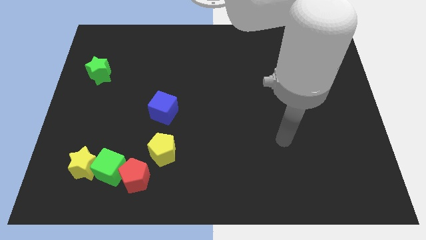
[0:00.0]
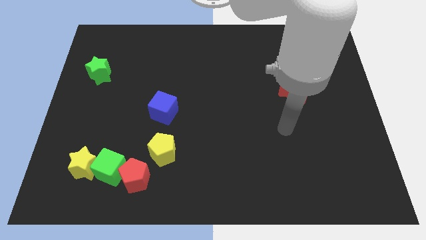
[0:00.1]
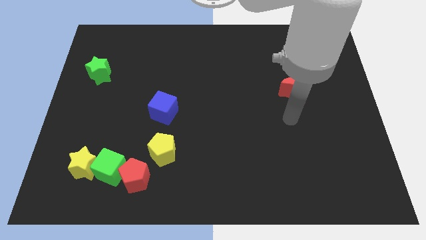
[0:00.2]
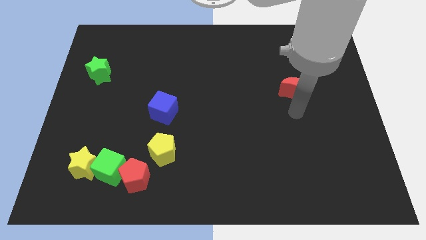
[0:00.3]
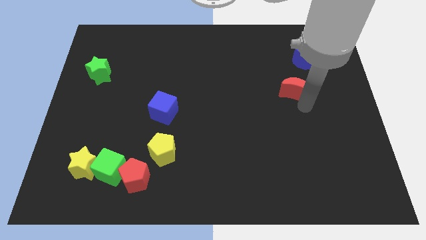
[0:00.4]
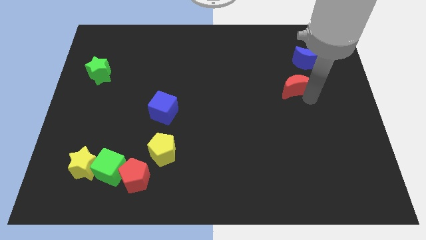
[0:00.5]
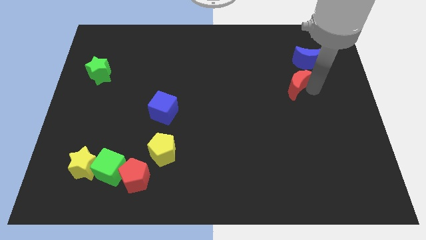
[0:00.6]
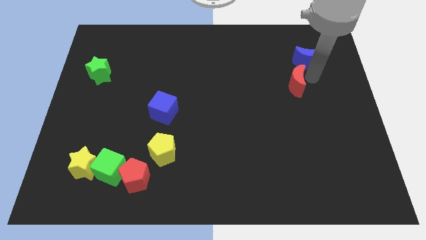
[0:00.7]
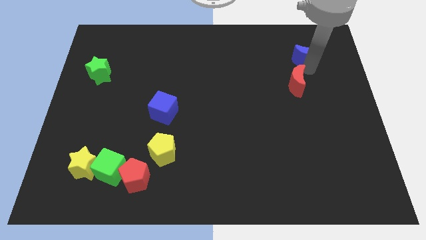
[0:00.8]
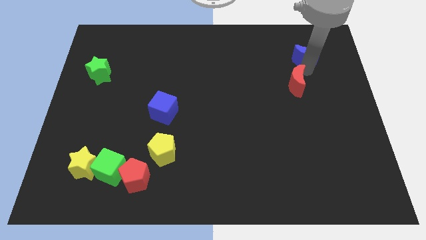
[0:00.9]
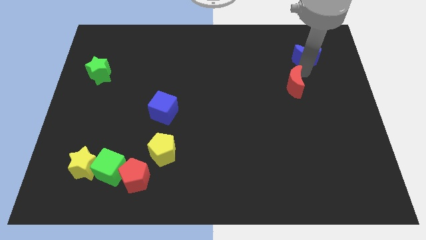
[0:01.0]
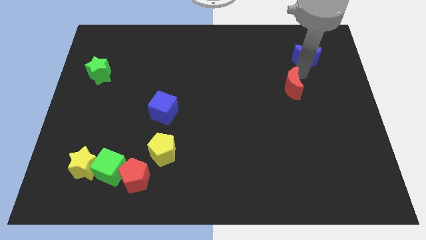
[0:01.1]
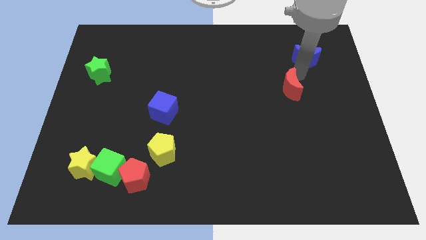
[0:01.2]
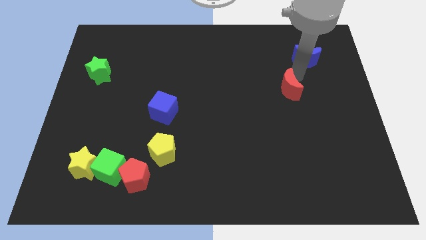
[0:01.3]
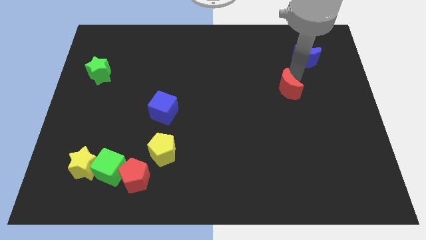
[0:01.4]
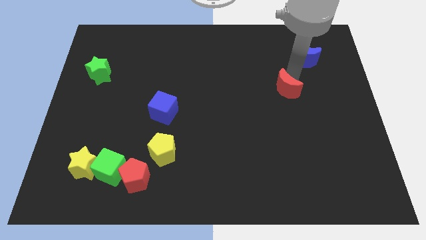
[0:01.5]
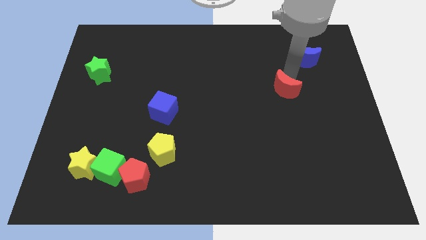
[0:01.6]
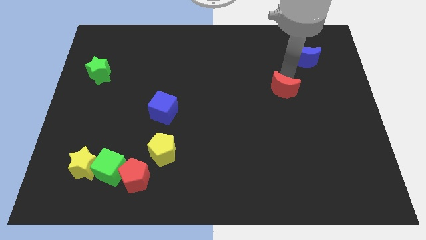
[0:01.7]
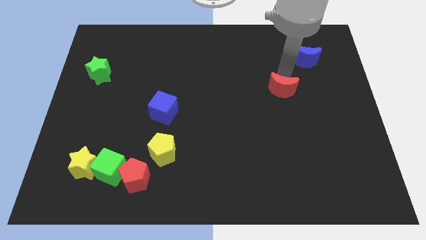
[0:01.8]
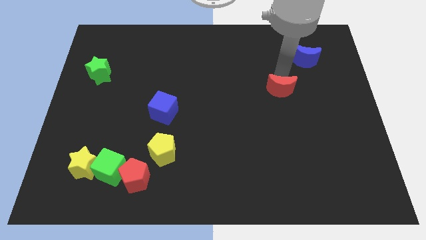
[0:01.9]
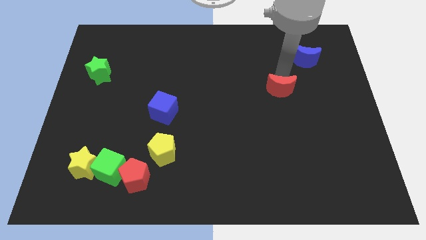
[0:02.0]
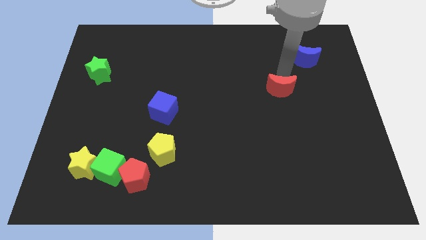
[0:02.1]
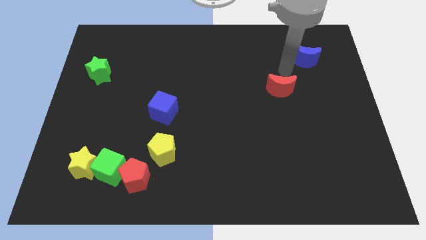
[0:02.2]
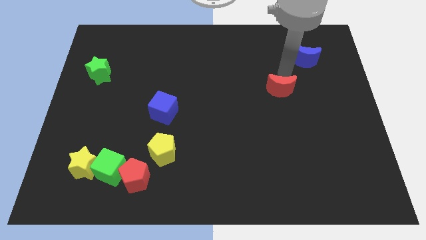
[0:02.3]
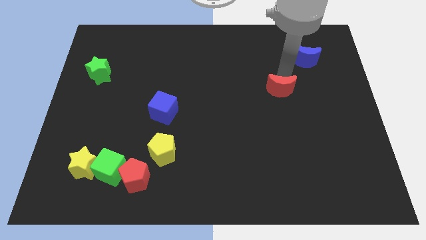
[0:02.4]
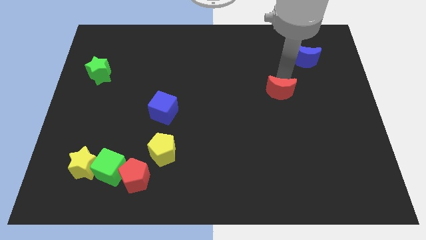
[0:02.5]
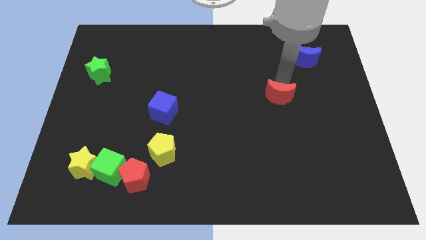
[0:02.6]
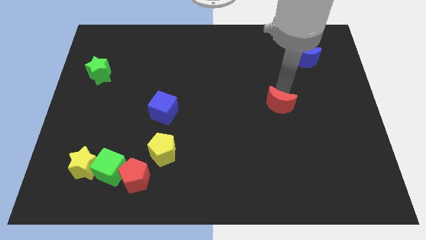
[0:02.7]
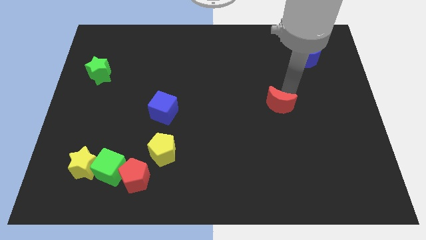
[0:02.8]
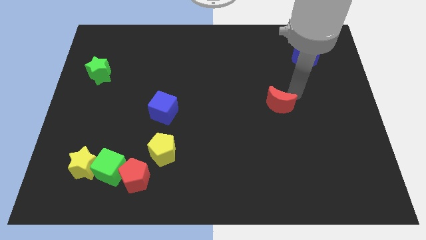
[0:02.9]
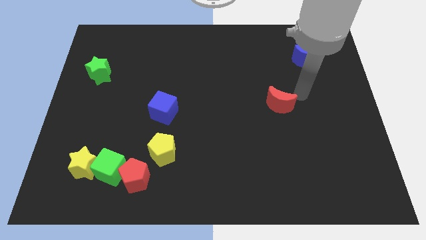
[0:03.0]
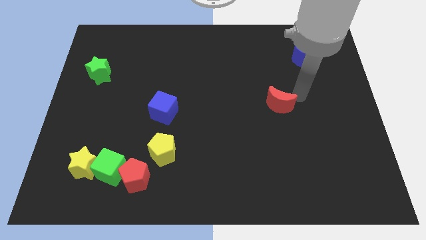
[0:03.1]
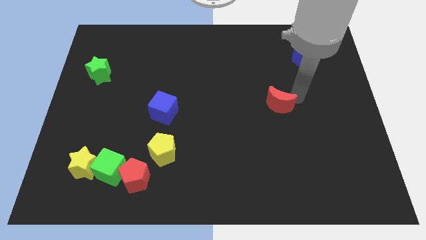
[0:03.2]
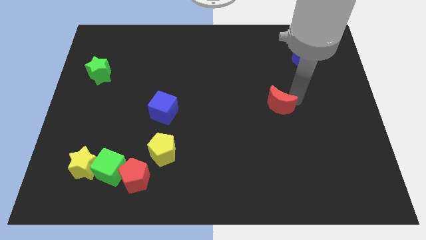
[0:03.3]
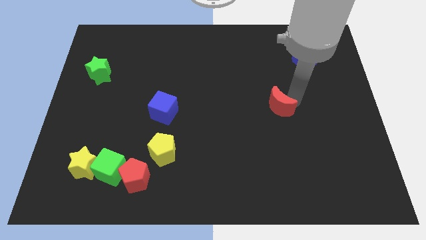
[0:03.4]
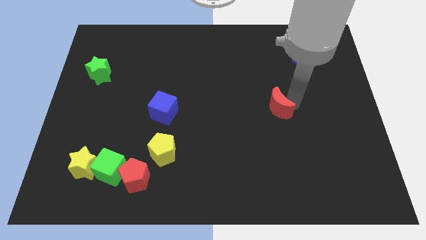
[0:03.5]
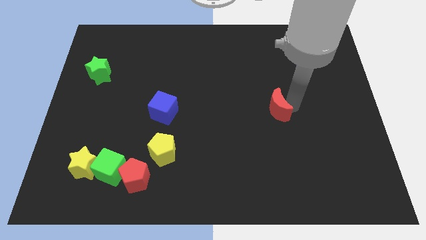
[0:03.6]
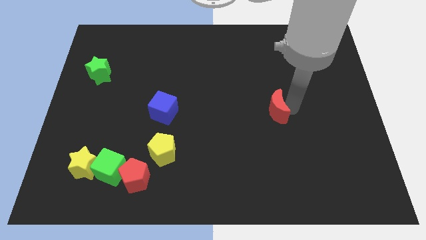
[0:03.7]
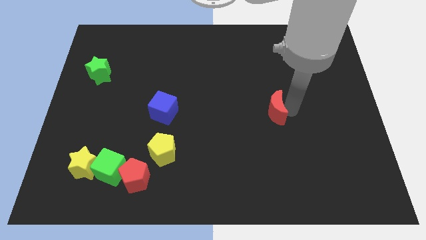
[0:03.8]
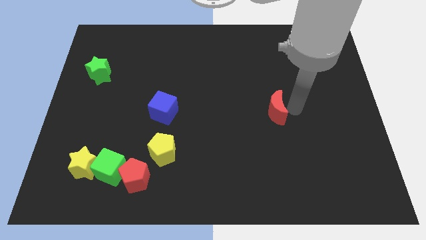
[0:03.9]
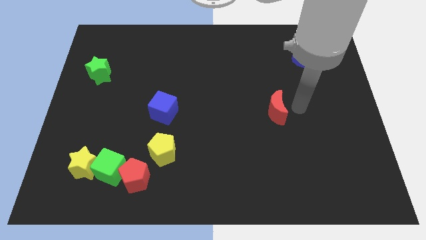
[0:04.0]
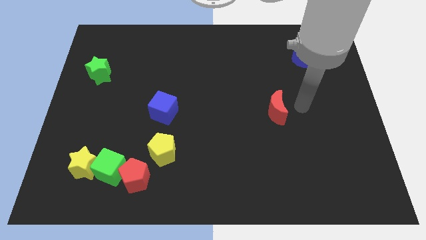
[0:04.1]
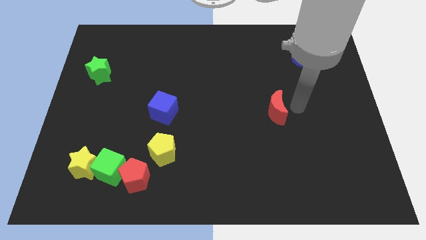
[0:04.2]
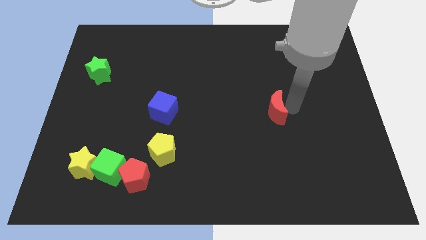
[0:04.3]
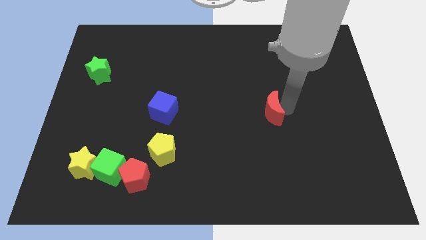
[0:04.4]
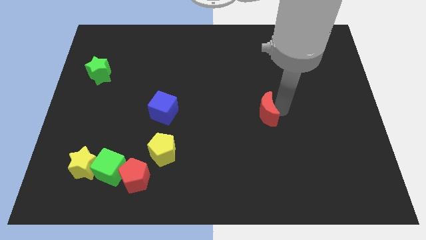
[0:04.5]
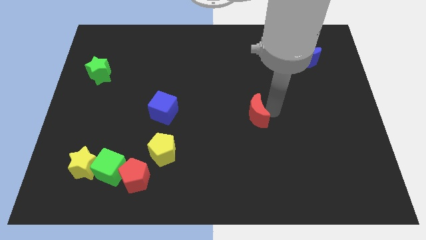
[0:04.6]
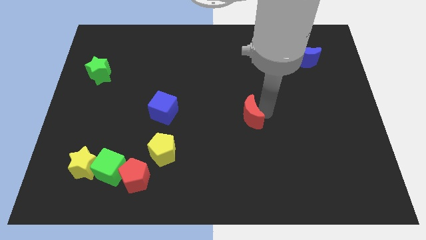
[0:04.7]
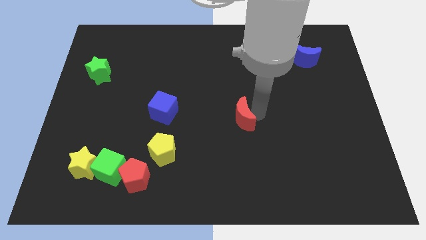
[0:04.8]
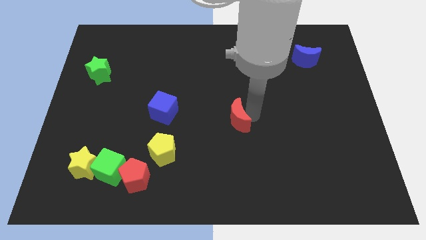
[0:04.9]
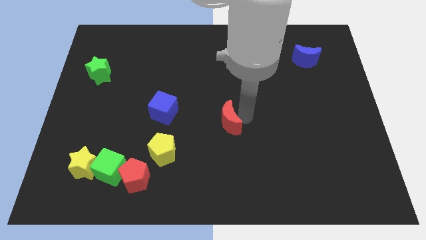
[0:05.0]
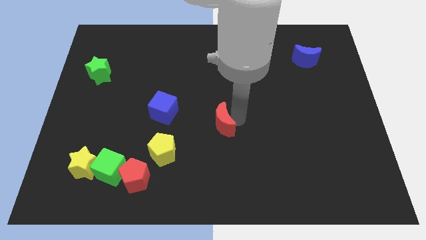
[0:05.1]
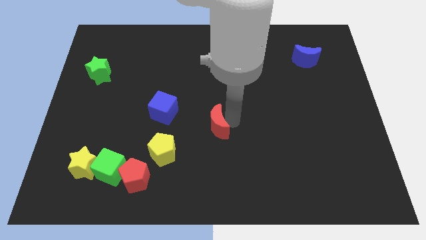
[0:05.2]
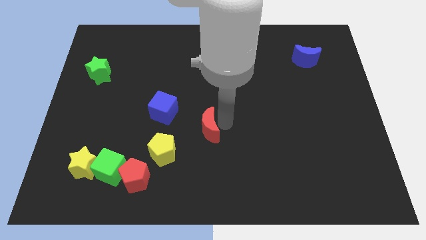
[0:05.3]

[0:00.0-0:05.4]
slide the red moon diagonally up and to the right of the yellow pentagon

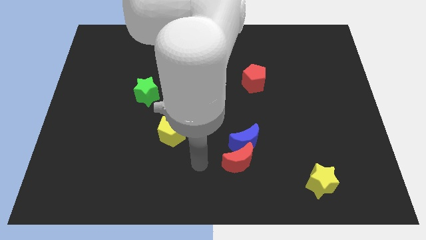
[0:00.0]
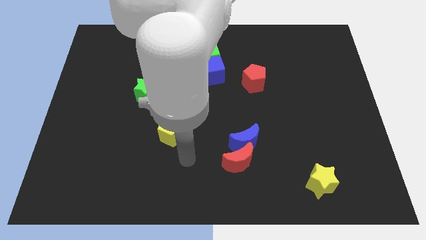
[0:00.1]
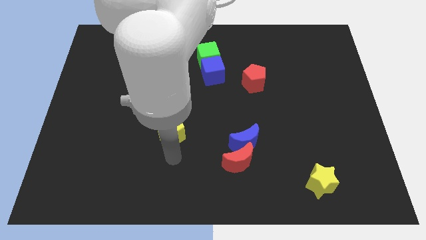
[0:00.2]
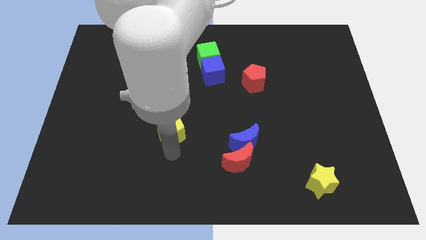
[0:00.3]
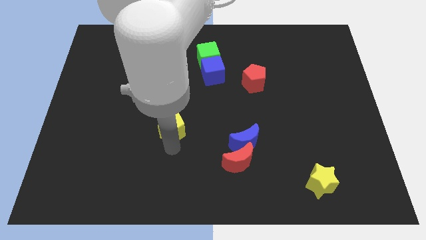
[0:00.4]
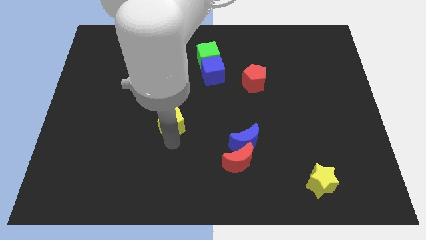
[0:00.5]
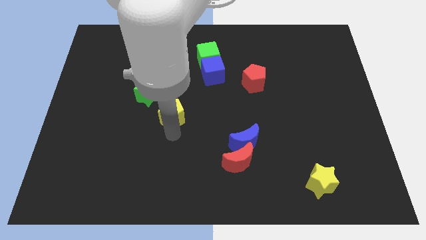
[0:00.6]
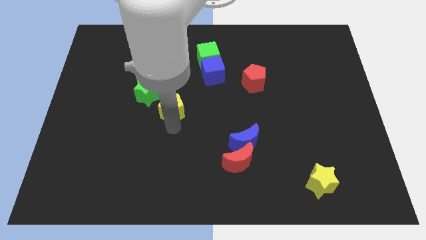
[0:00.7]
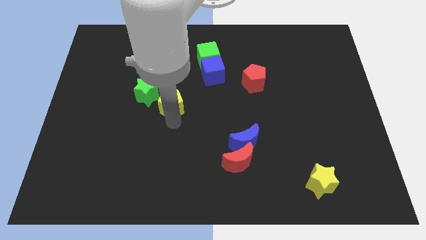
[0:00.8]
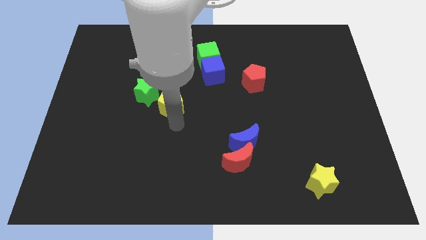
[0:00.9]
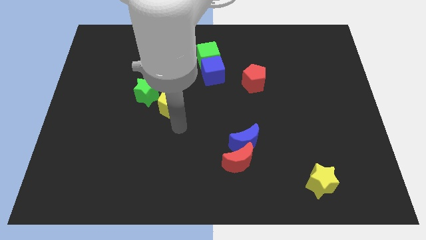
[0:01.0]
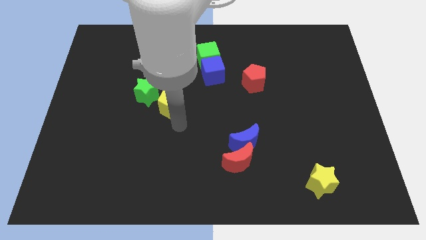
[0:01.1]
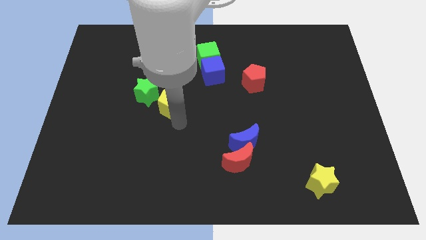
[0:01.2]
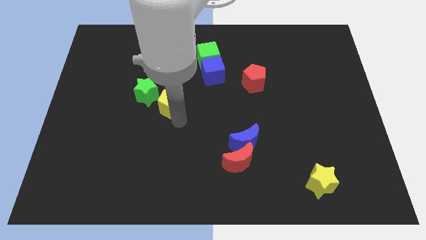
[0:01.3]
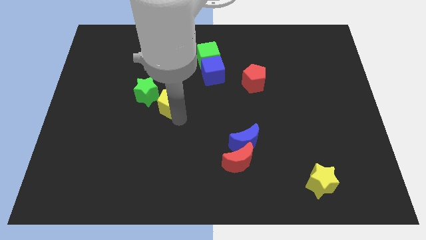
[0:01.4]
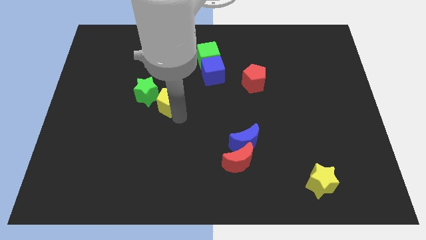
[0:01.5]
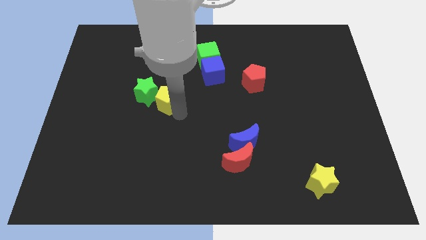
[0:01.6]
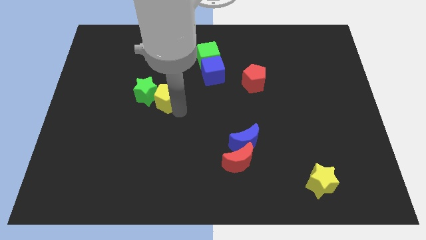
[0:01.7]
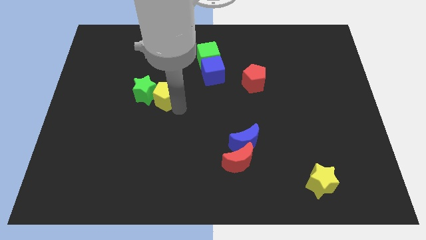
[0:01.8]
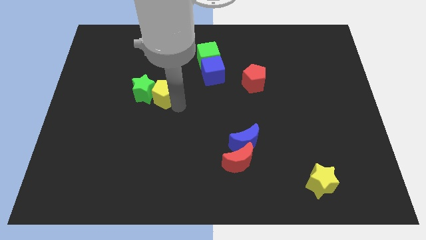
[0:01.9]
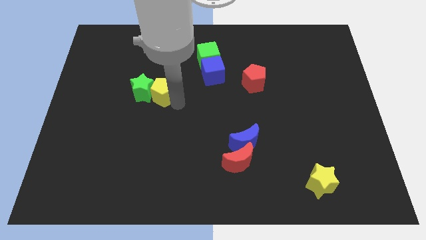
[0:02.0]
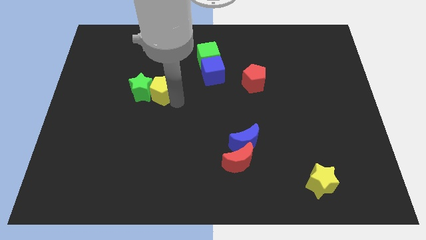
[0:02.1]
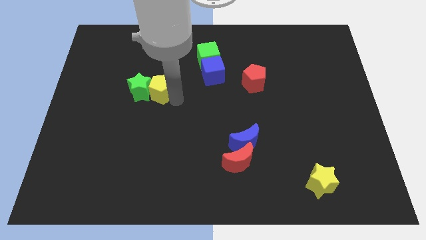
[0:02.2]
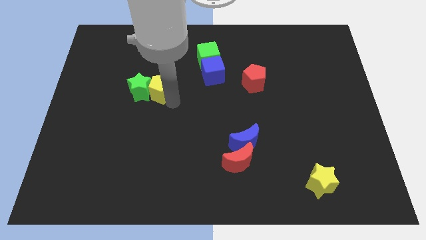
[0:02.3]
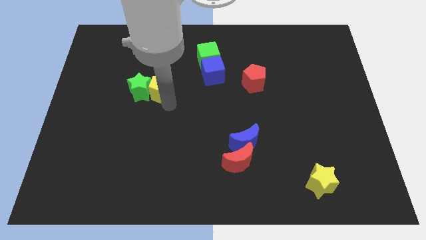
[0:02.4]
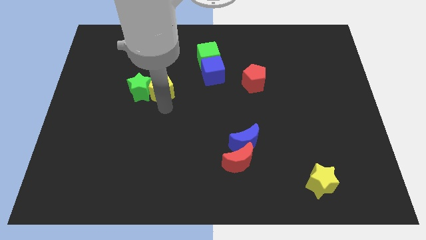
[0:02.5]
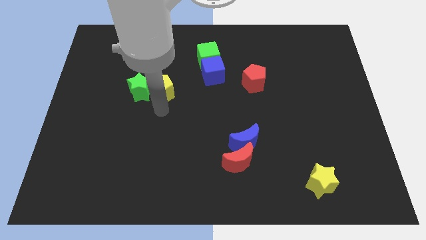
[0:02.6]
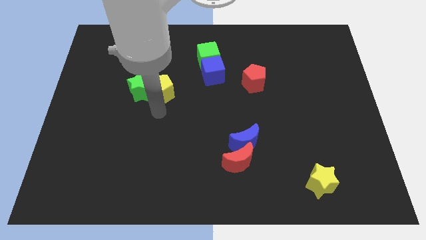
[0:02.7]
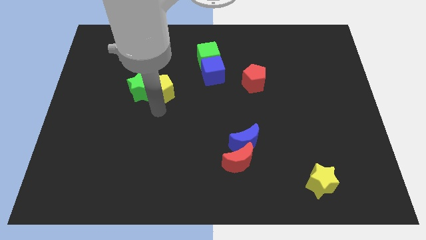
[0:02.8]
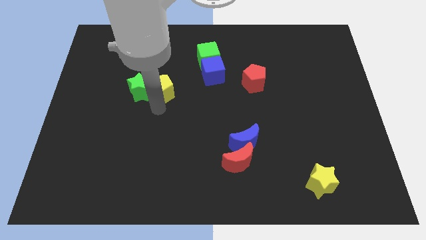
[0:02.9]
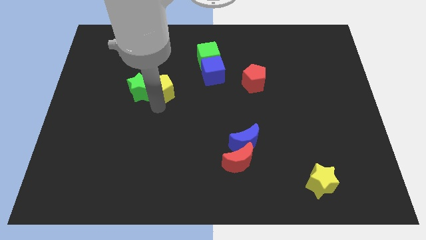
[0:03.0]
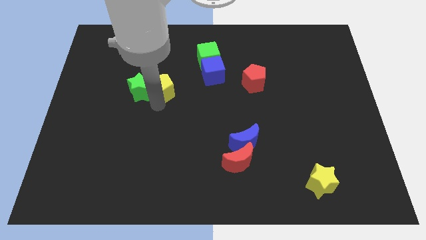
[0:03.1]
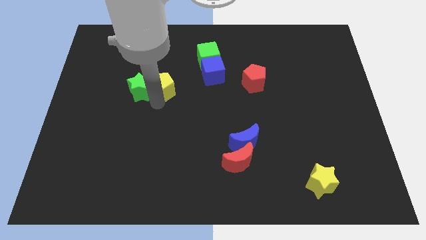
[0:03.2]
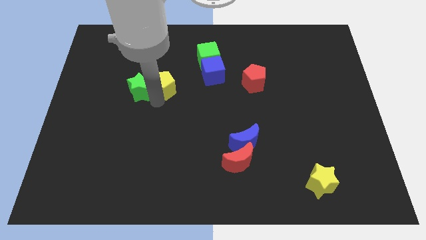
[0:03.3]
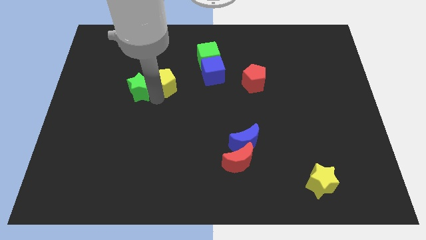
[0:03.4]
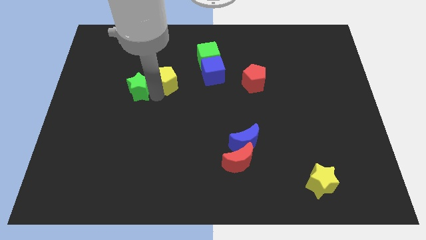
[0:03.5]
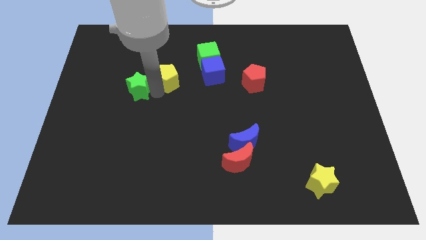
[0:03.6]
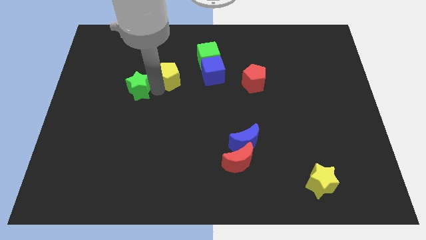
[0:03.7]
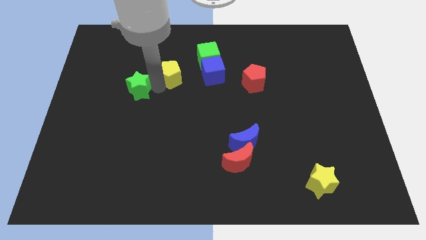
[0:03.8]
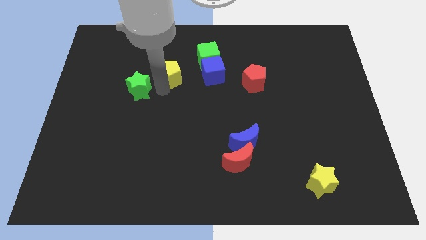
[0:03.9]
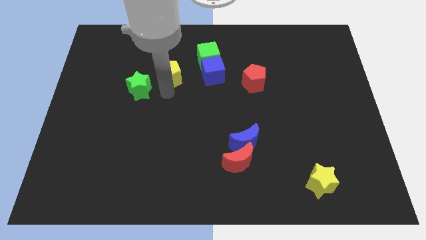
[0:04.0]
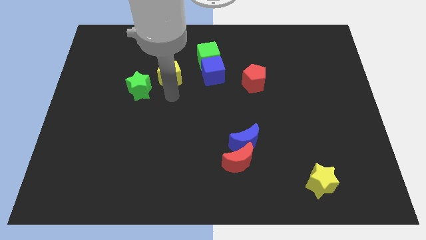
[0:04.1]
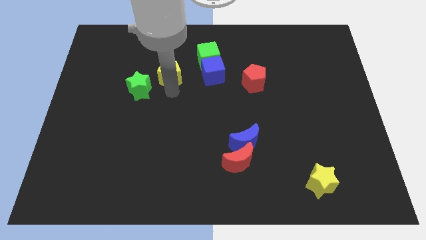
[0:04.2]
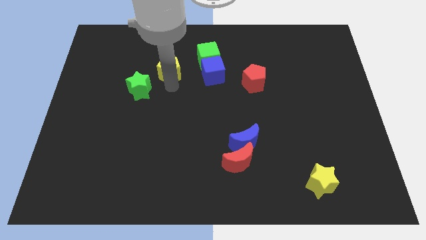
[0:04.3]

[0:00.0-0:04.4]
move the yellow pentagon just left of the green cube
